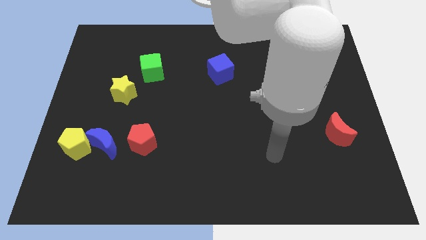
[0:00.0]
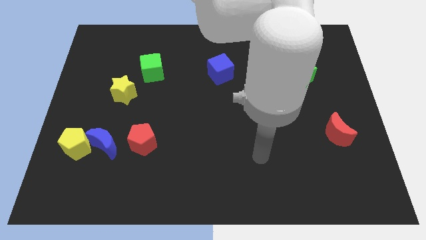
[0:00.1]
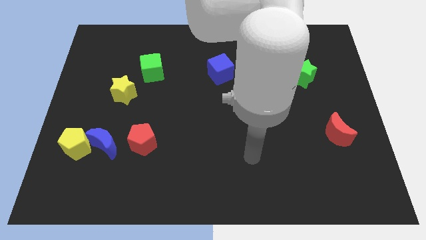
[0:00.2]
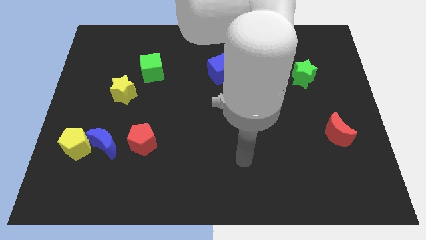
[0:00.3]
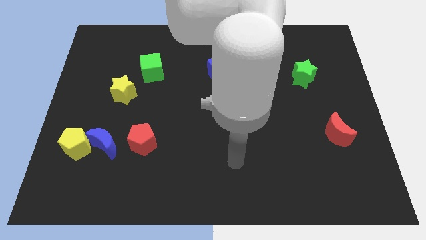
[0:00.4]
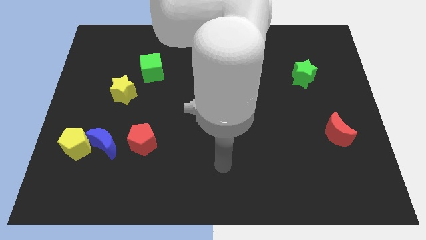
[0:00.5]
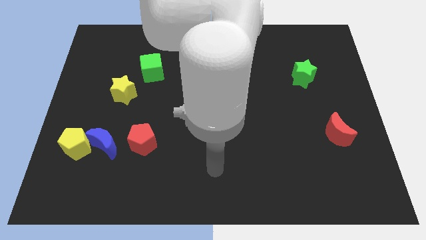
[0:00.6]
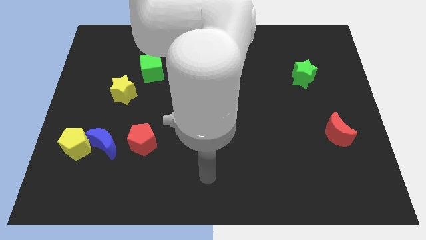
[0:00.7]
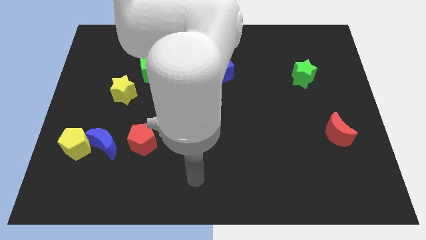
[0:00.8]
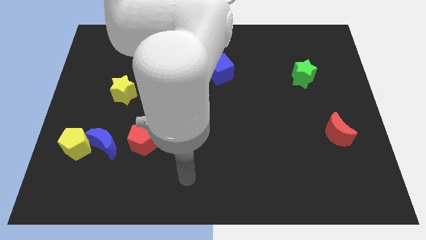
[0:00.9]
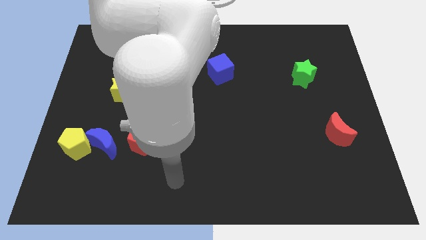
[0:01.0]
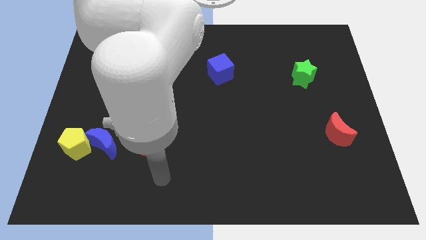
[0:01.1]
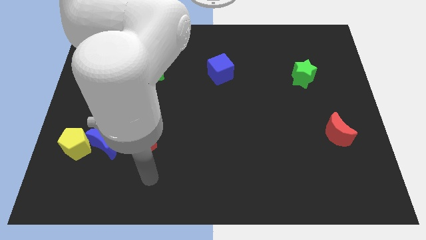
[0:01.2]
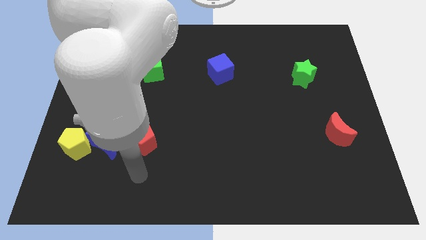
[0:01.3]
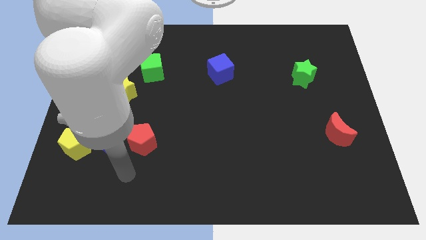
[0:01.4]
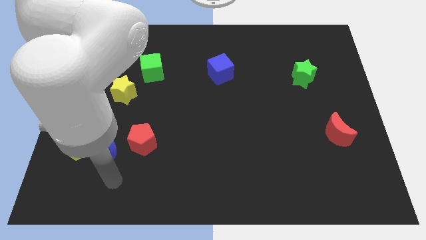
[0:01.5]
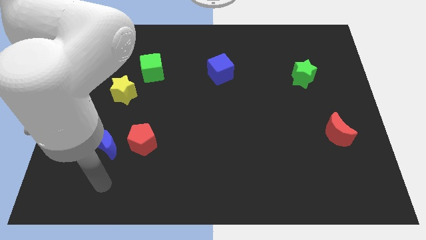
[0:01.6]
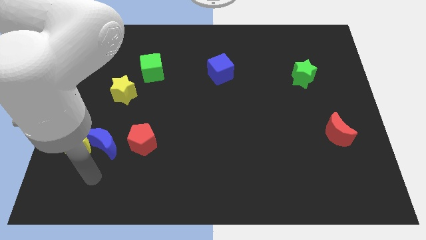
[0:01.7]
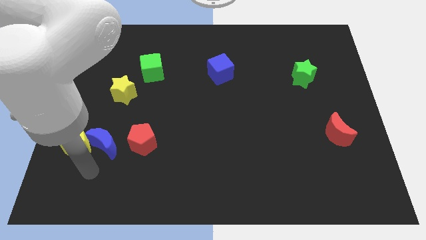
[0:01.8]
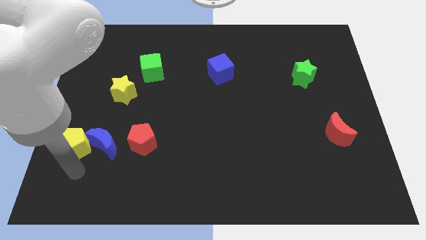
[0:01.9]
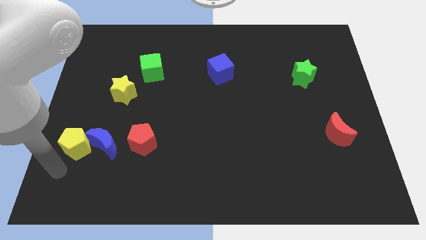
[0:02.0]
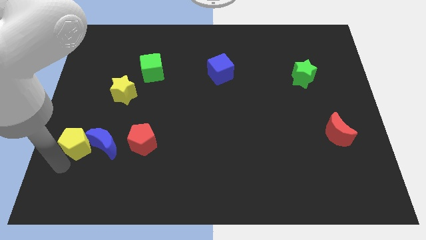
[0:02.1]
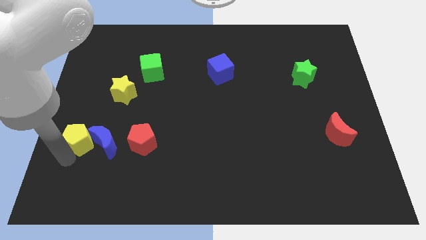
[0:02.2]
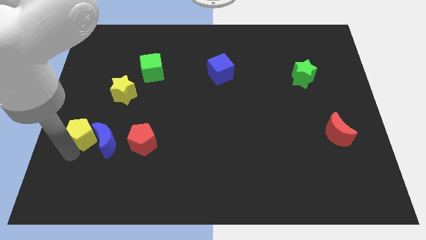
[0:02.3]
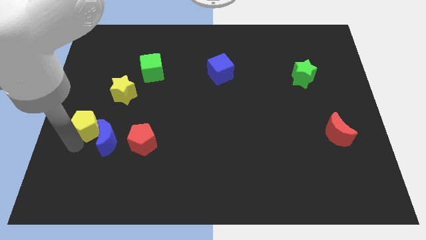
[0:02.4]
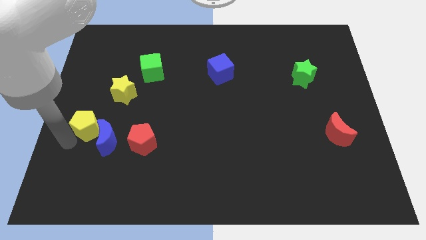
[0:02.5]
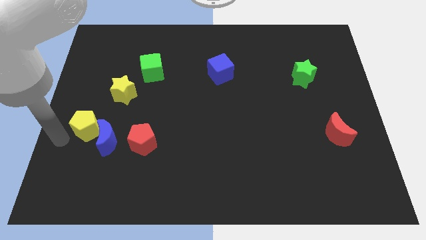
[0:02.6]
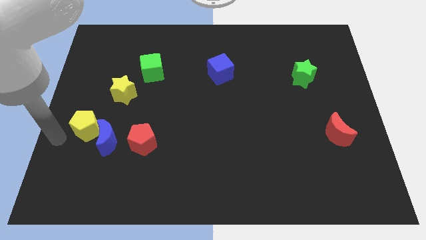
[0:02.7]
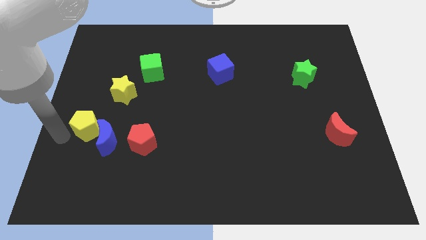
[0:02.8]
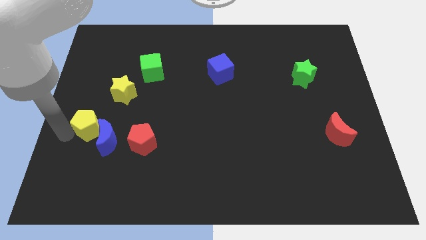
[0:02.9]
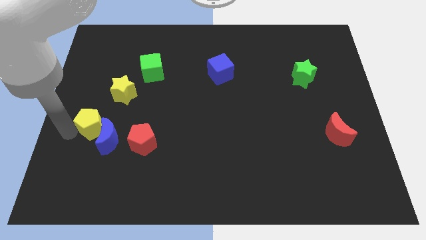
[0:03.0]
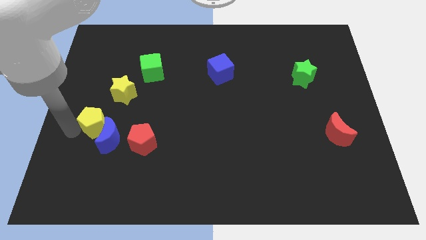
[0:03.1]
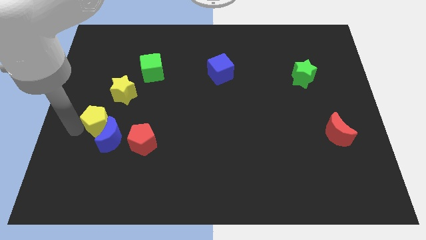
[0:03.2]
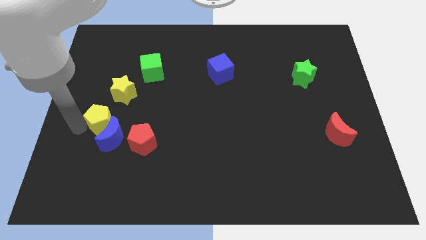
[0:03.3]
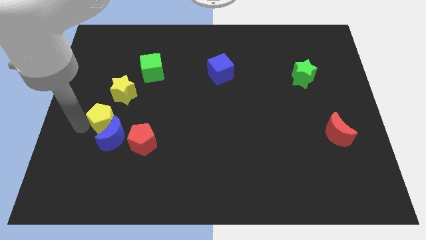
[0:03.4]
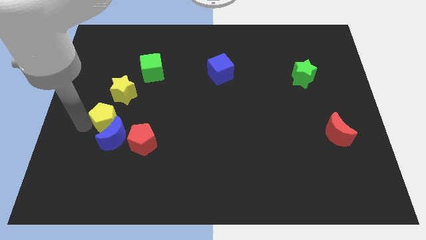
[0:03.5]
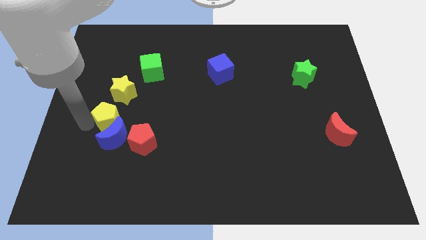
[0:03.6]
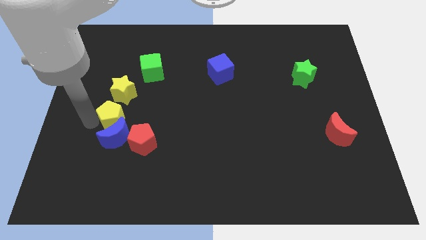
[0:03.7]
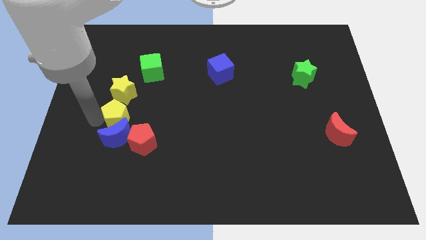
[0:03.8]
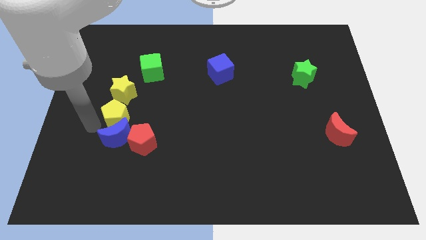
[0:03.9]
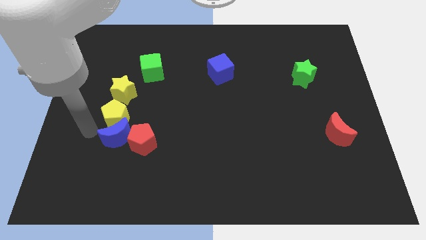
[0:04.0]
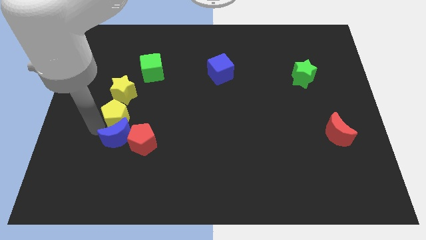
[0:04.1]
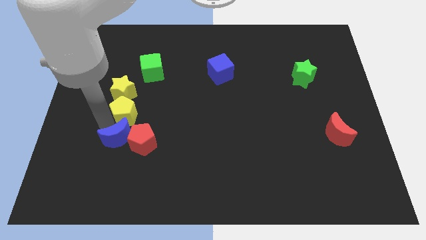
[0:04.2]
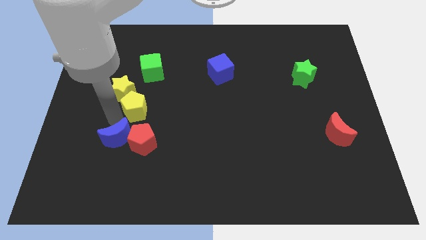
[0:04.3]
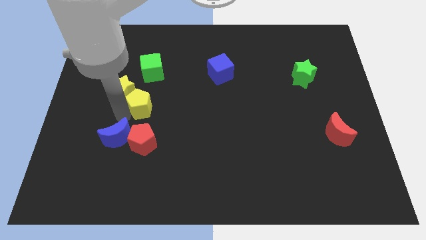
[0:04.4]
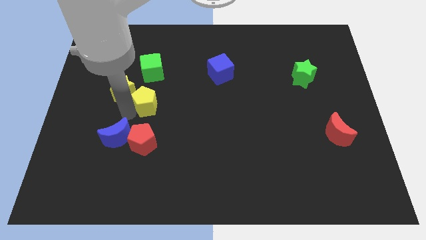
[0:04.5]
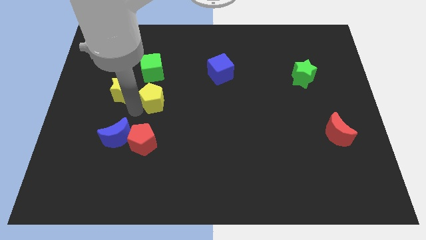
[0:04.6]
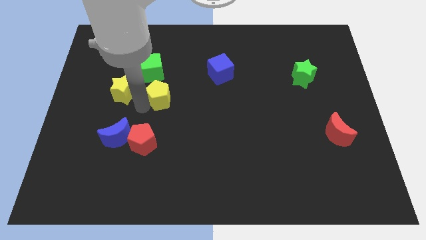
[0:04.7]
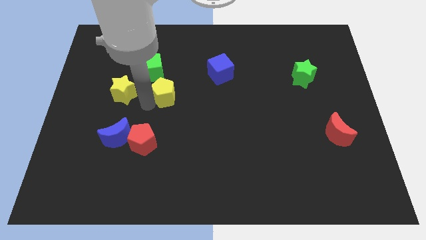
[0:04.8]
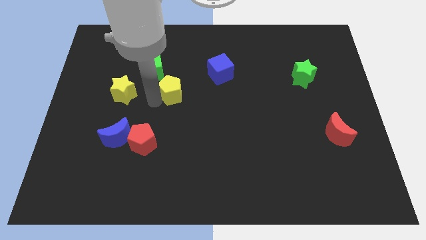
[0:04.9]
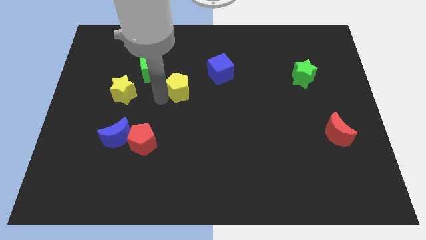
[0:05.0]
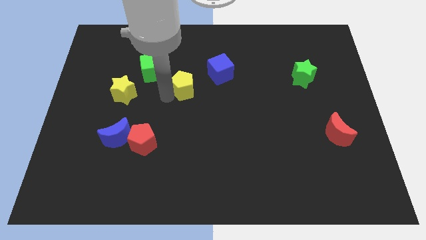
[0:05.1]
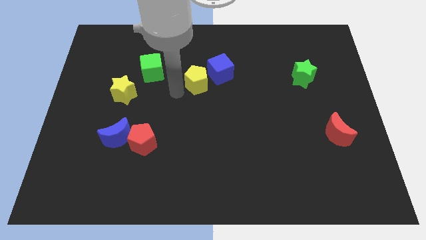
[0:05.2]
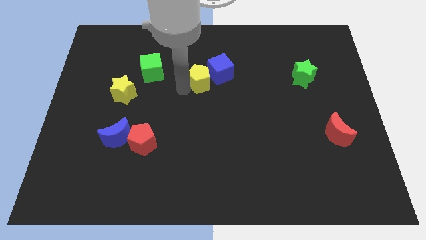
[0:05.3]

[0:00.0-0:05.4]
push the yellow pentagon close to the blue cube

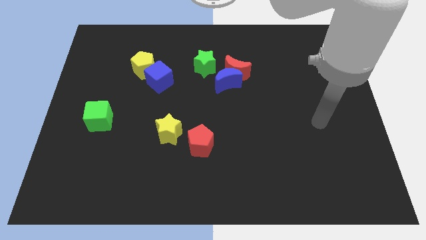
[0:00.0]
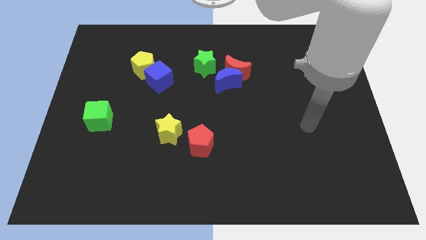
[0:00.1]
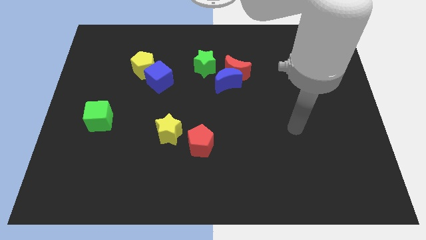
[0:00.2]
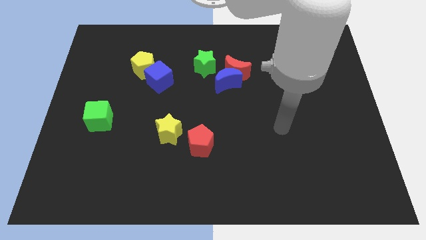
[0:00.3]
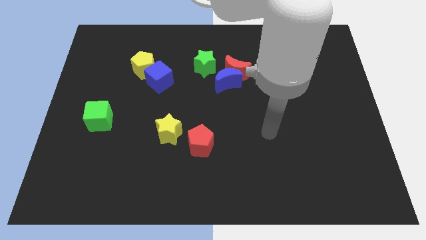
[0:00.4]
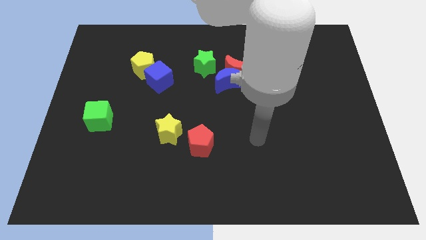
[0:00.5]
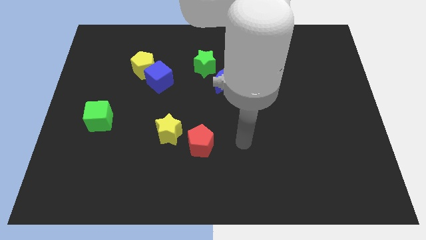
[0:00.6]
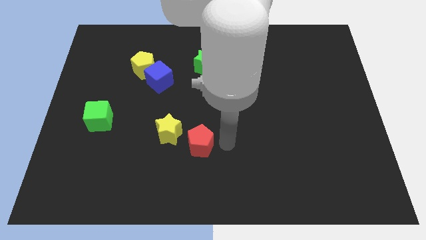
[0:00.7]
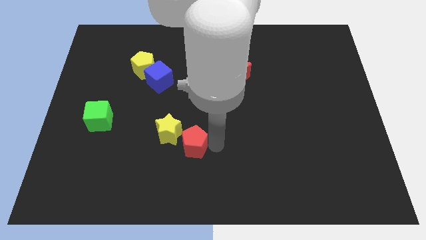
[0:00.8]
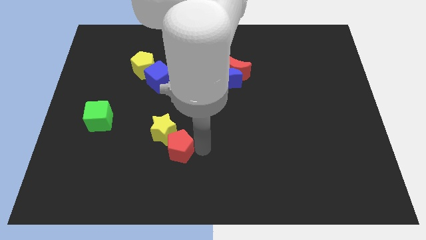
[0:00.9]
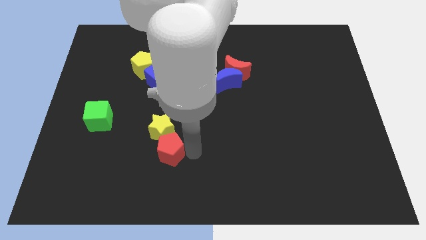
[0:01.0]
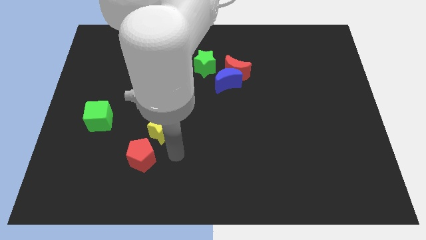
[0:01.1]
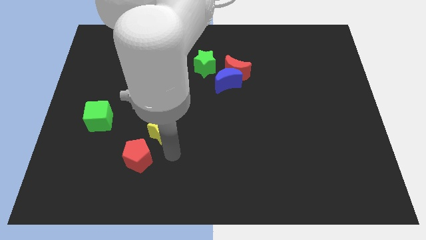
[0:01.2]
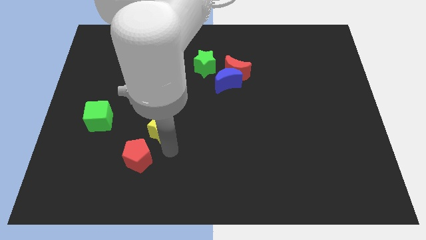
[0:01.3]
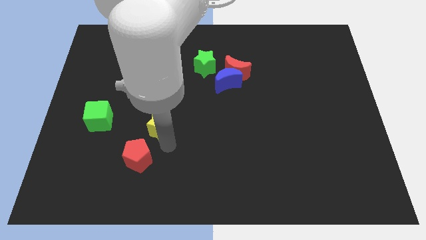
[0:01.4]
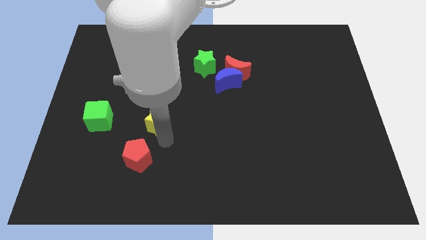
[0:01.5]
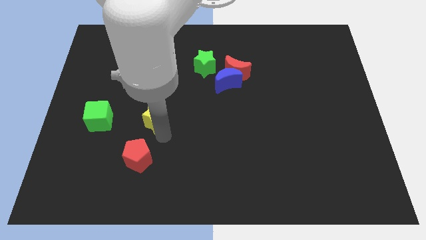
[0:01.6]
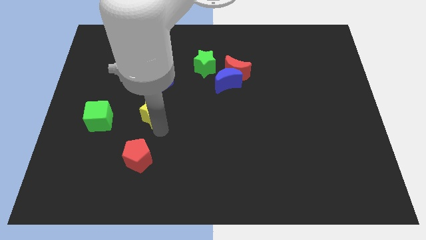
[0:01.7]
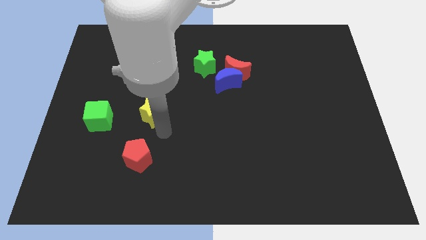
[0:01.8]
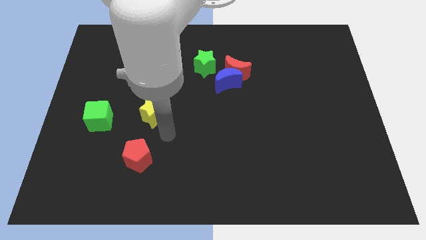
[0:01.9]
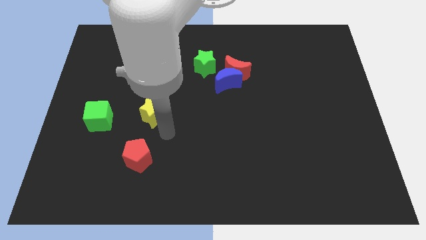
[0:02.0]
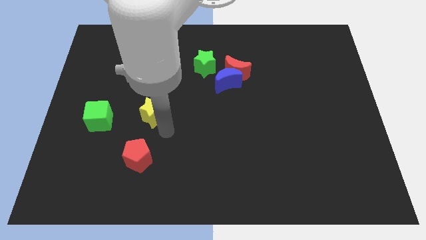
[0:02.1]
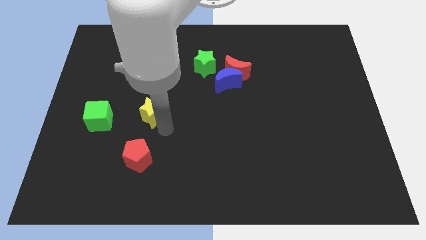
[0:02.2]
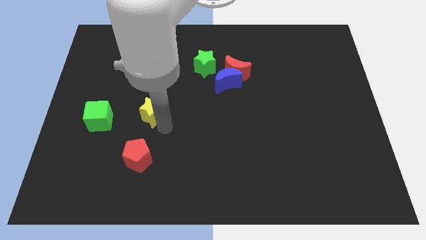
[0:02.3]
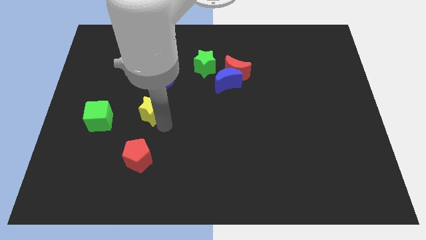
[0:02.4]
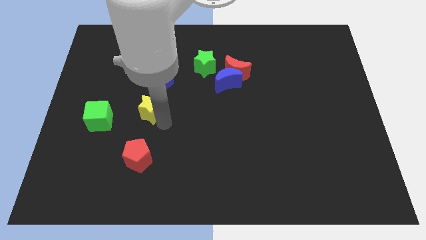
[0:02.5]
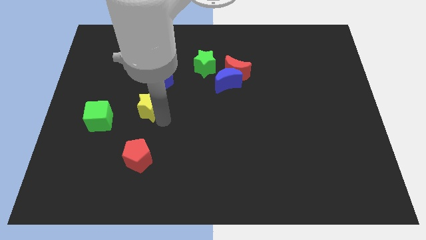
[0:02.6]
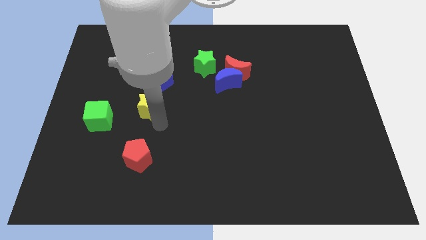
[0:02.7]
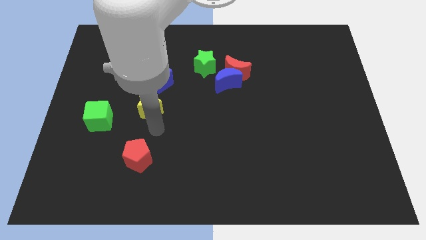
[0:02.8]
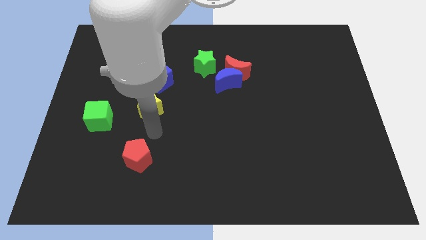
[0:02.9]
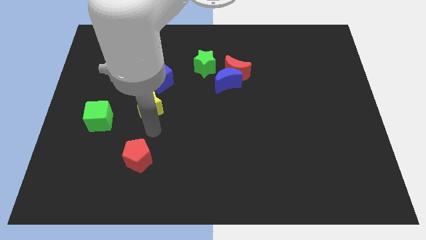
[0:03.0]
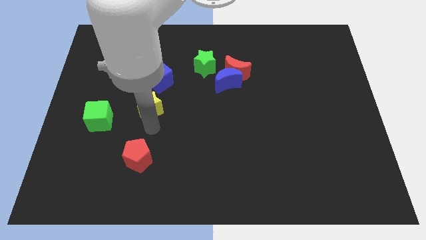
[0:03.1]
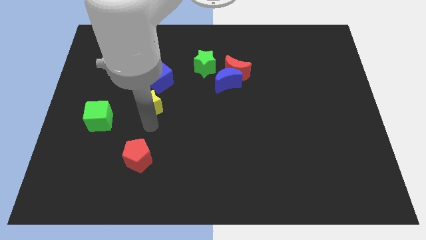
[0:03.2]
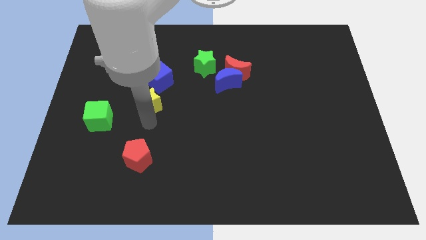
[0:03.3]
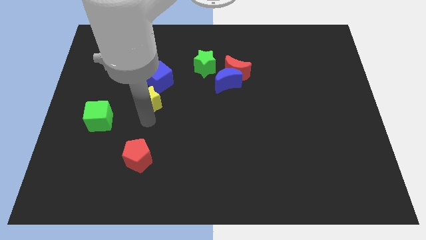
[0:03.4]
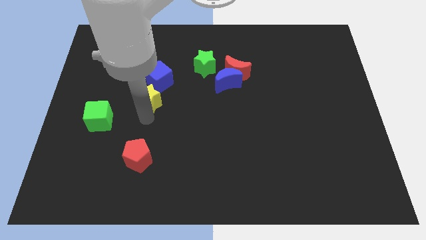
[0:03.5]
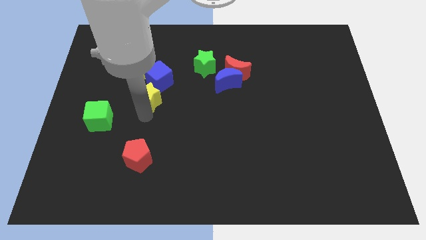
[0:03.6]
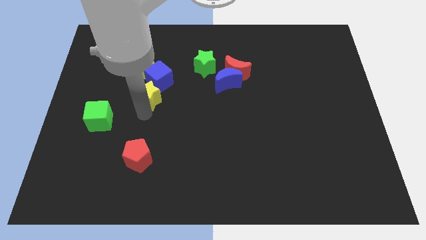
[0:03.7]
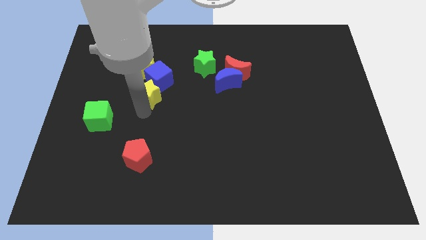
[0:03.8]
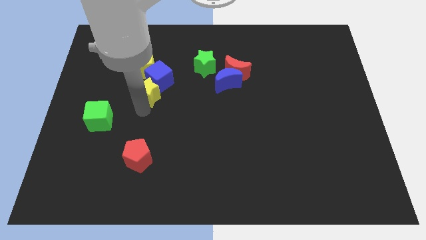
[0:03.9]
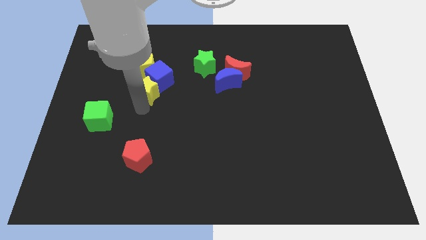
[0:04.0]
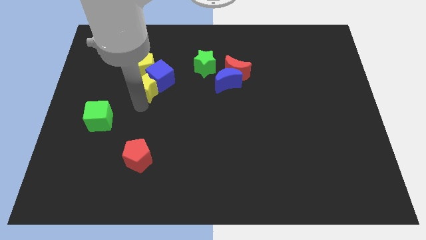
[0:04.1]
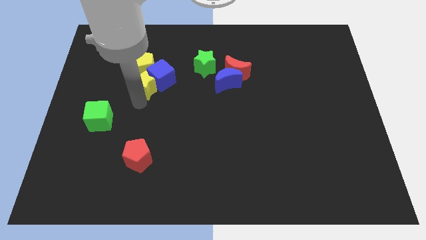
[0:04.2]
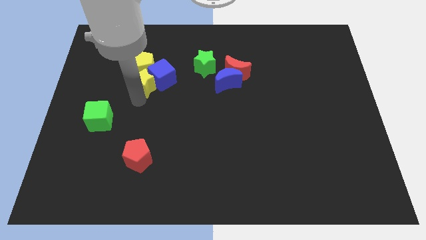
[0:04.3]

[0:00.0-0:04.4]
put the yellow star close to the yellow pentagon
